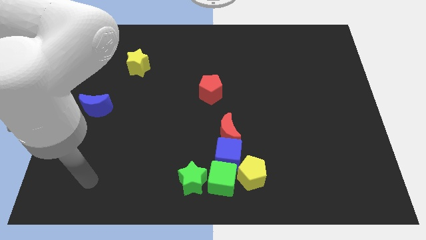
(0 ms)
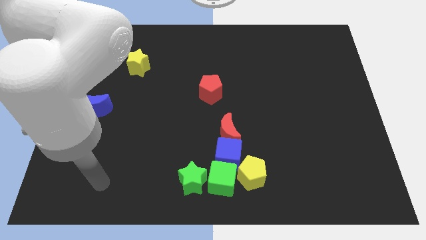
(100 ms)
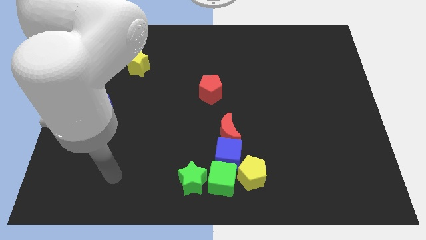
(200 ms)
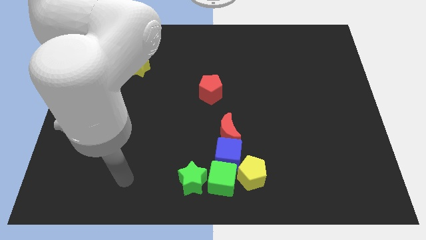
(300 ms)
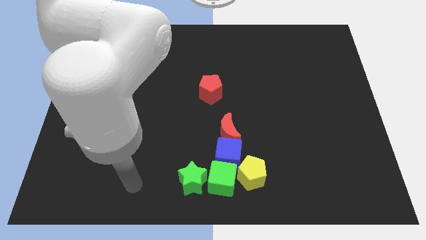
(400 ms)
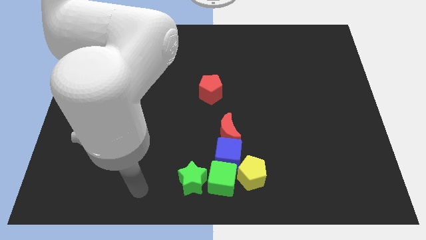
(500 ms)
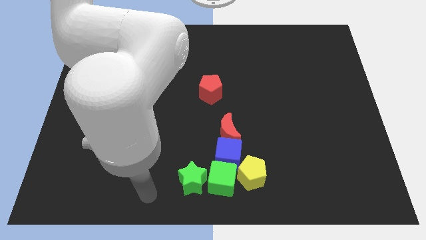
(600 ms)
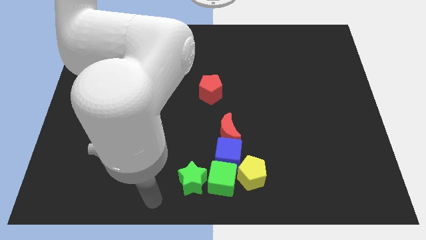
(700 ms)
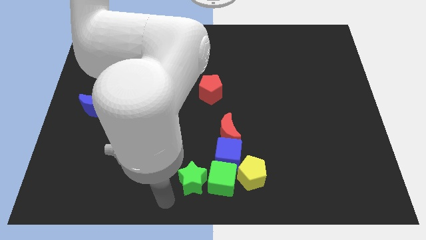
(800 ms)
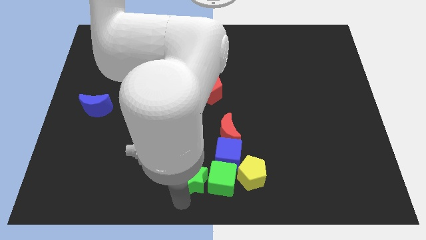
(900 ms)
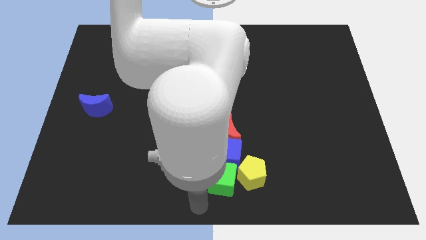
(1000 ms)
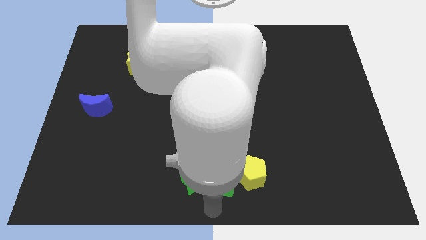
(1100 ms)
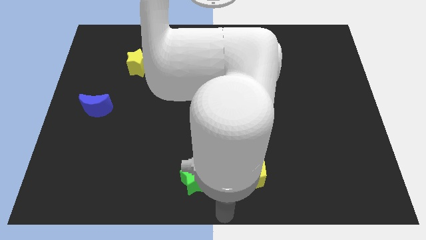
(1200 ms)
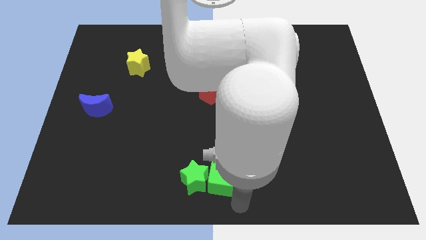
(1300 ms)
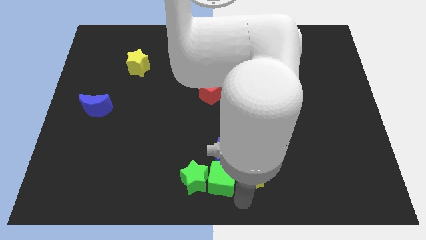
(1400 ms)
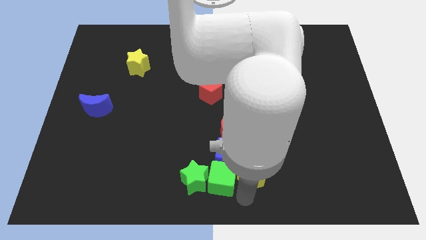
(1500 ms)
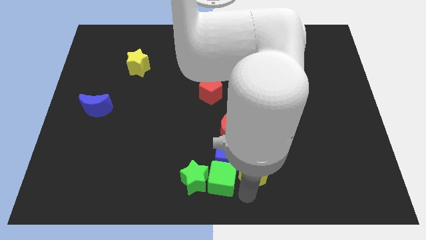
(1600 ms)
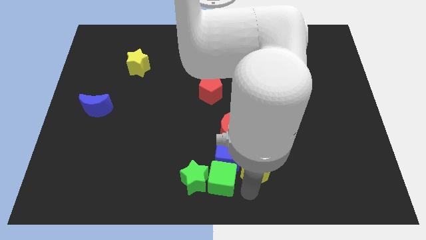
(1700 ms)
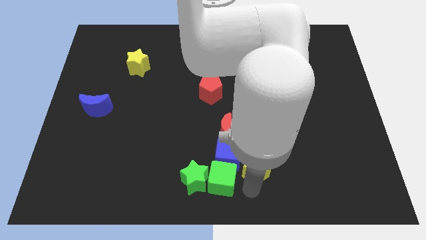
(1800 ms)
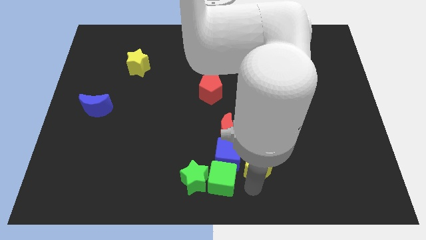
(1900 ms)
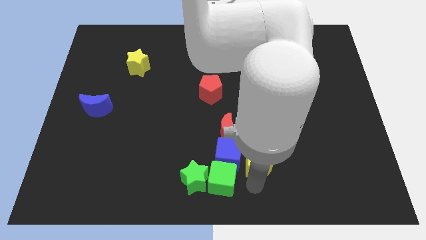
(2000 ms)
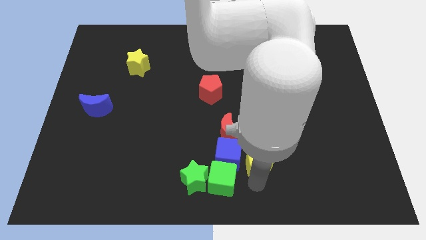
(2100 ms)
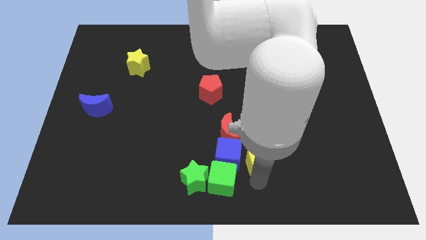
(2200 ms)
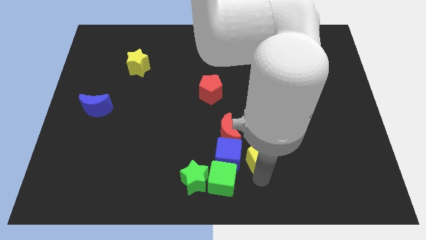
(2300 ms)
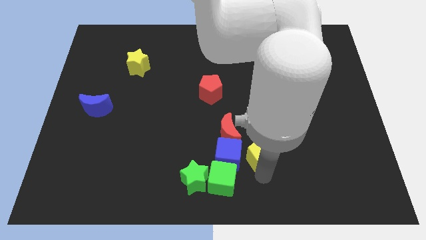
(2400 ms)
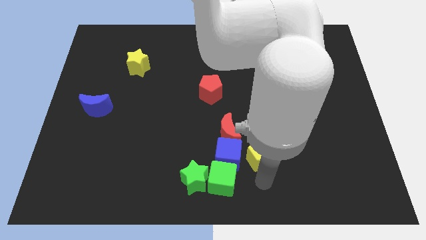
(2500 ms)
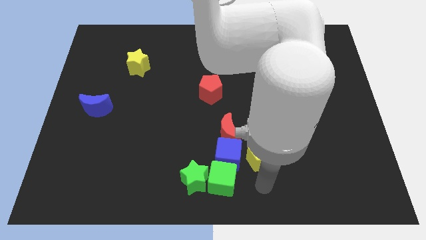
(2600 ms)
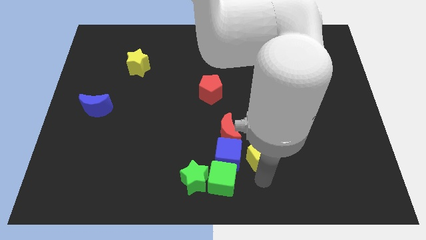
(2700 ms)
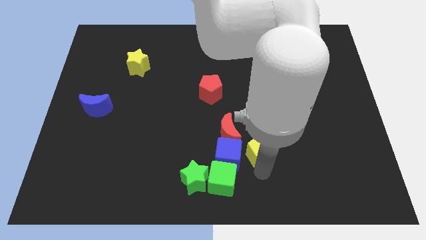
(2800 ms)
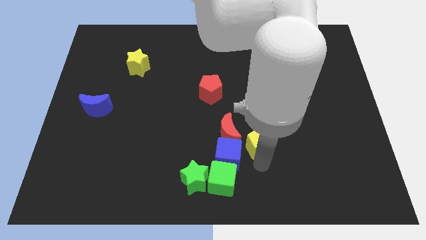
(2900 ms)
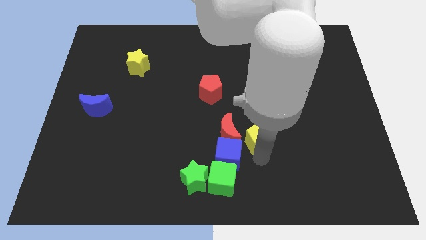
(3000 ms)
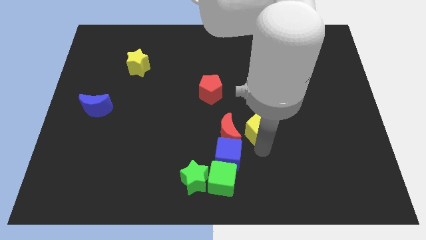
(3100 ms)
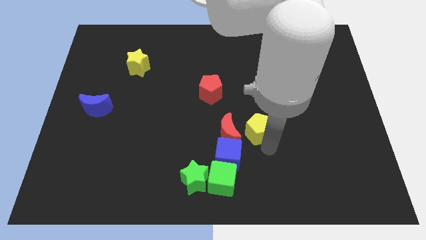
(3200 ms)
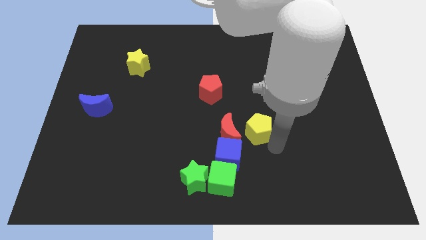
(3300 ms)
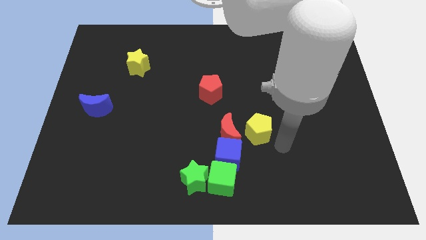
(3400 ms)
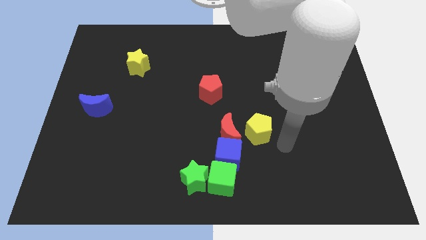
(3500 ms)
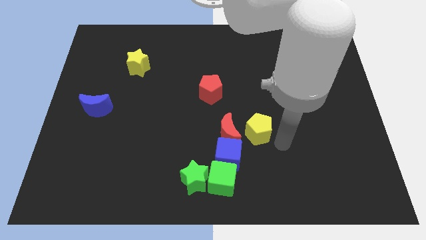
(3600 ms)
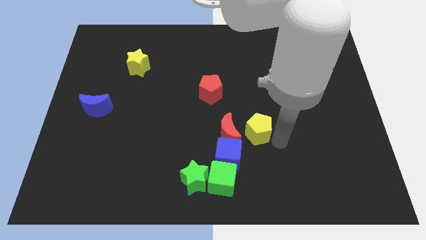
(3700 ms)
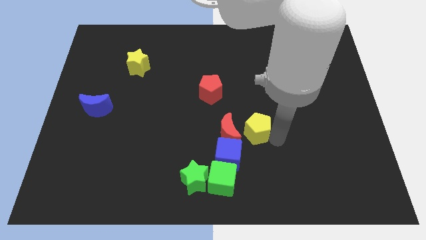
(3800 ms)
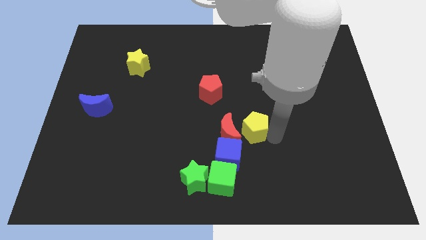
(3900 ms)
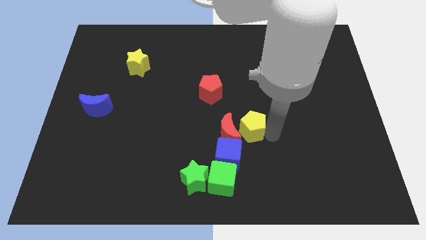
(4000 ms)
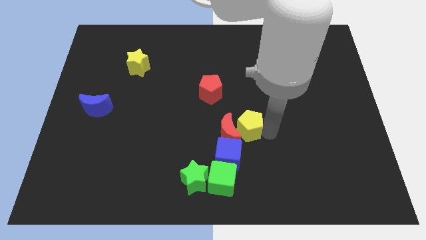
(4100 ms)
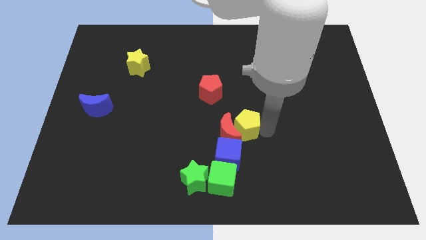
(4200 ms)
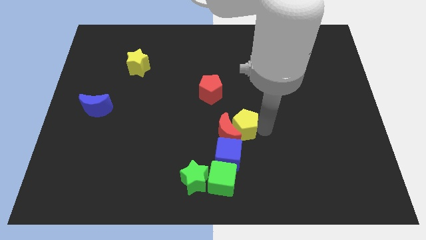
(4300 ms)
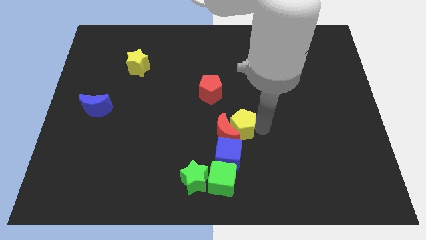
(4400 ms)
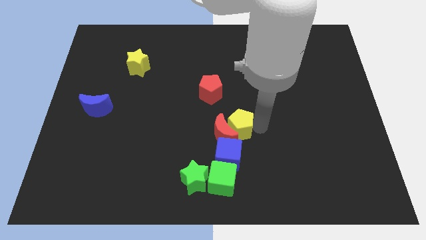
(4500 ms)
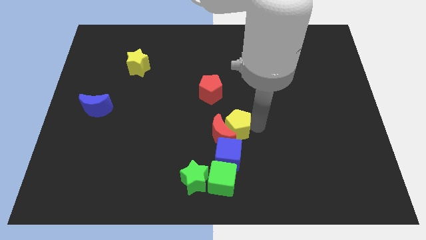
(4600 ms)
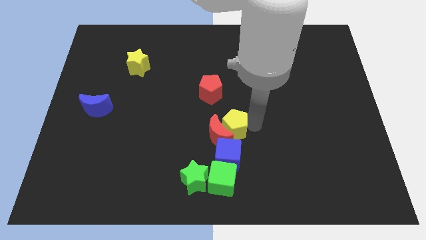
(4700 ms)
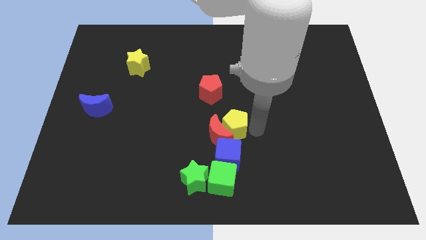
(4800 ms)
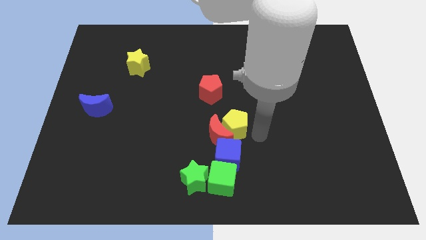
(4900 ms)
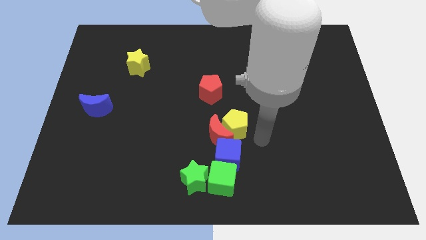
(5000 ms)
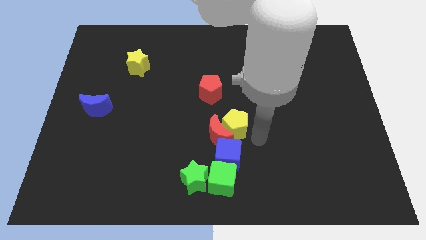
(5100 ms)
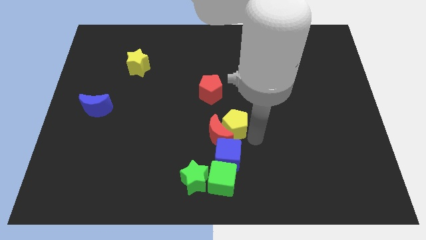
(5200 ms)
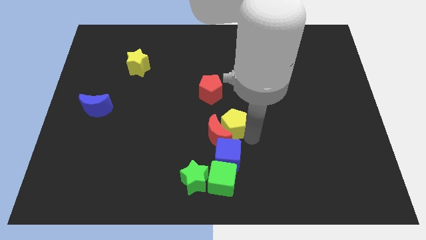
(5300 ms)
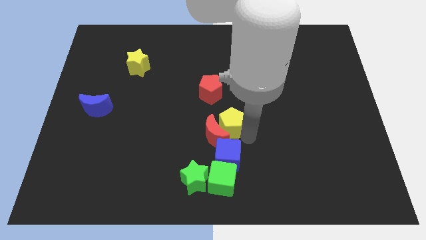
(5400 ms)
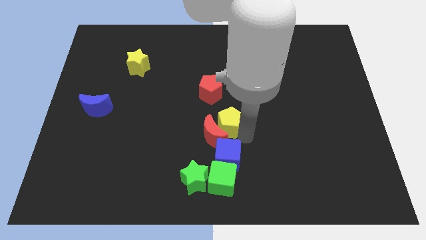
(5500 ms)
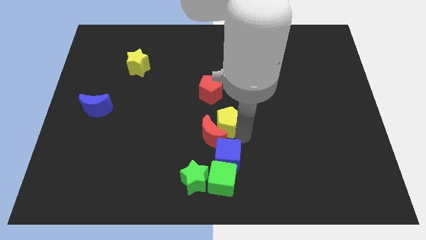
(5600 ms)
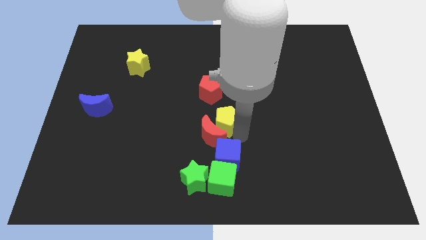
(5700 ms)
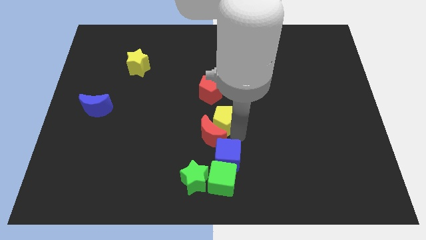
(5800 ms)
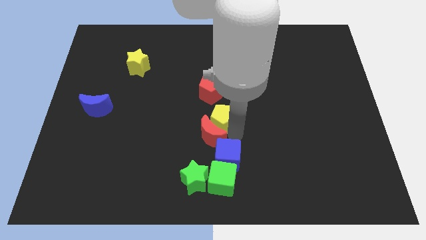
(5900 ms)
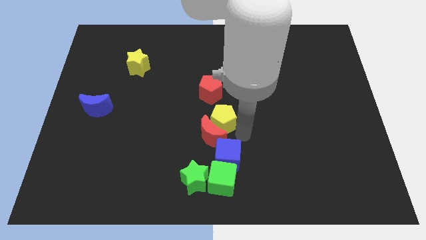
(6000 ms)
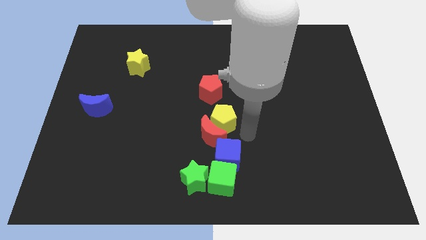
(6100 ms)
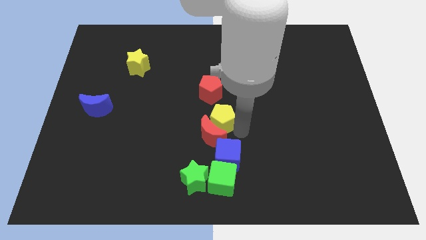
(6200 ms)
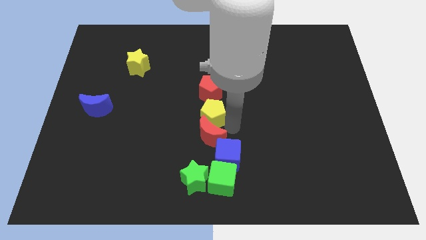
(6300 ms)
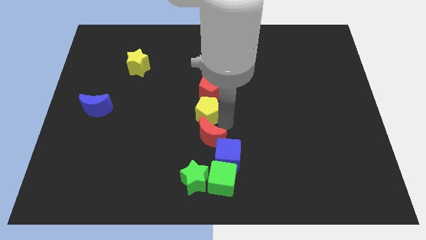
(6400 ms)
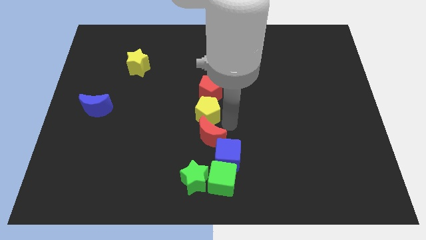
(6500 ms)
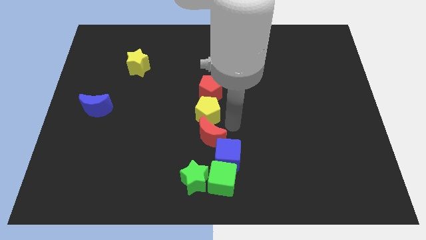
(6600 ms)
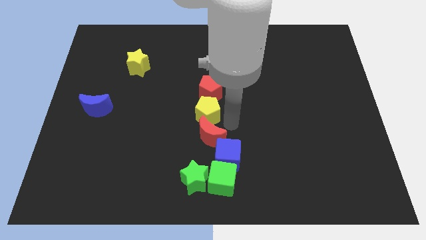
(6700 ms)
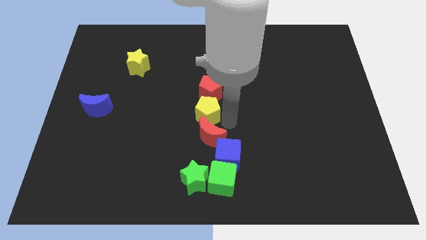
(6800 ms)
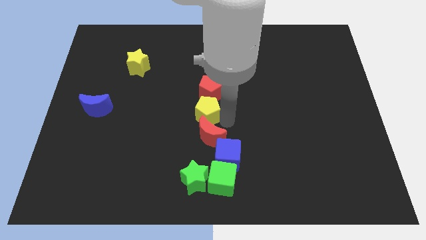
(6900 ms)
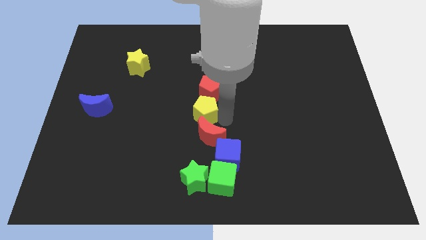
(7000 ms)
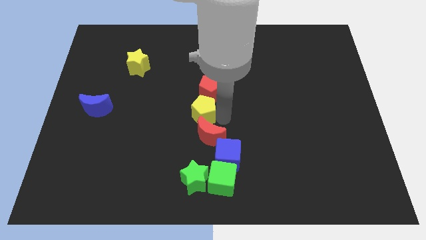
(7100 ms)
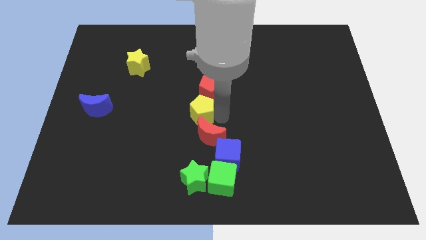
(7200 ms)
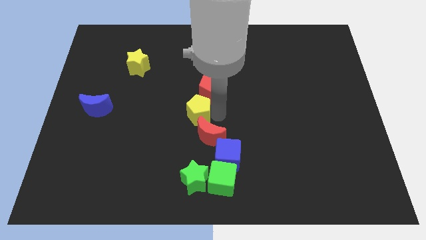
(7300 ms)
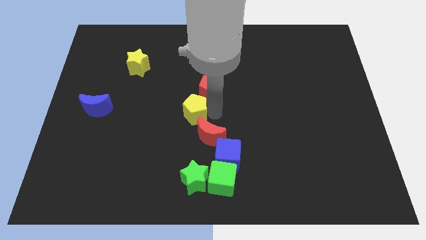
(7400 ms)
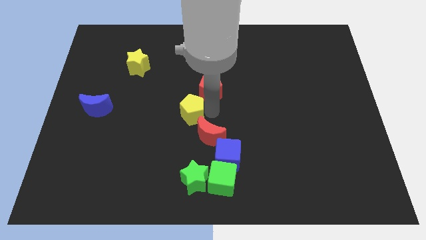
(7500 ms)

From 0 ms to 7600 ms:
move the yellow pentagon diagonally up and to the left

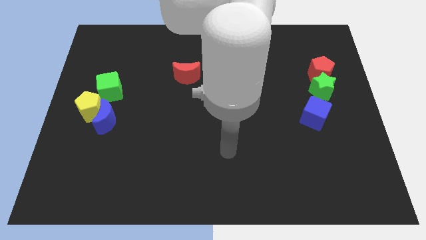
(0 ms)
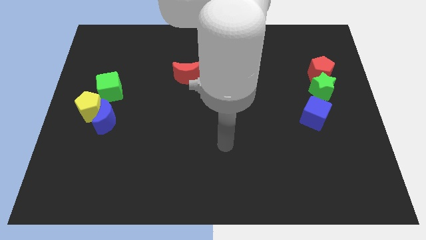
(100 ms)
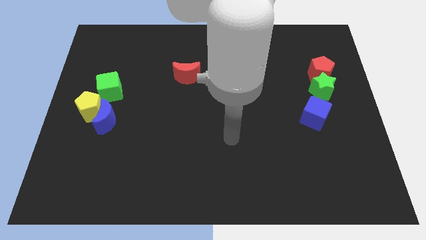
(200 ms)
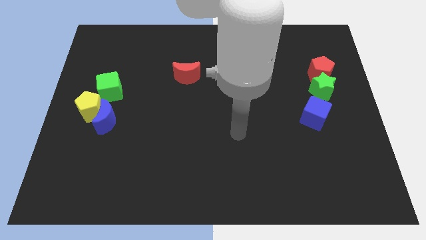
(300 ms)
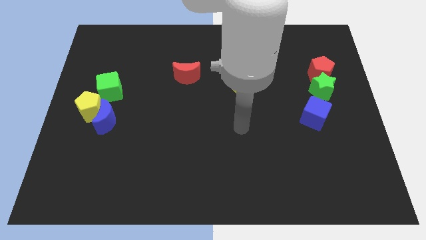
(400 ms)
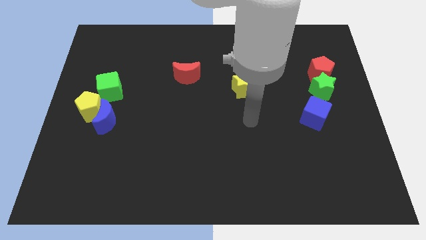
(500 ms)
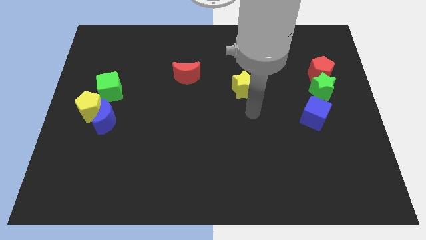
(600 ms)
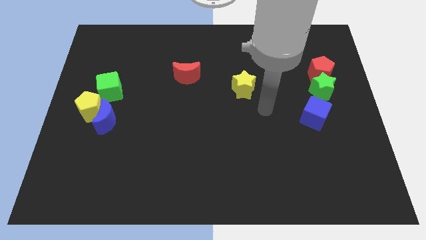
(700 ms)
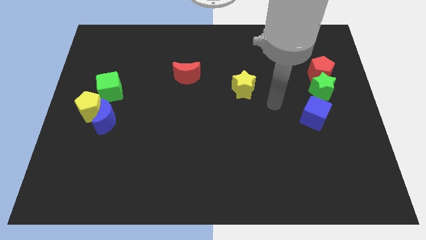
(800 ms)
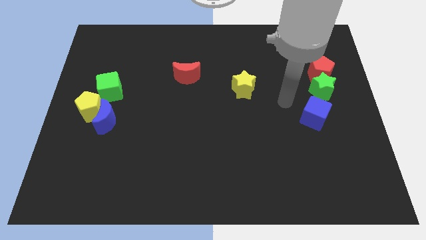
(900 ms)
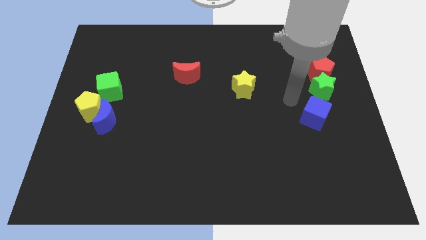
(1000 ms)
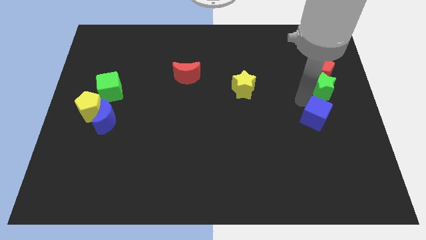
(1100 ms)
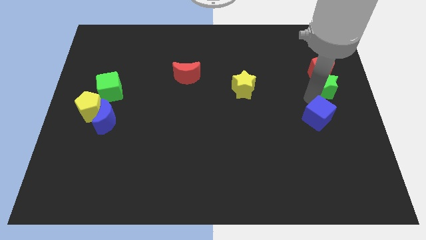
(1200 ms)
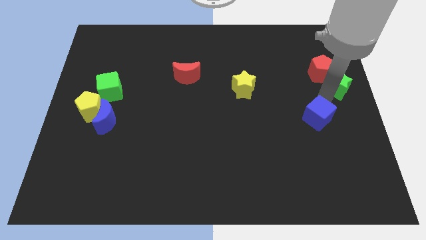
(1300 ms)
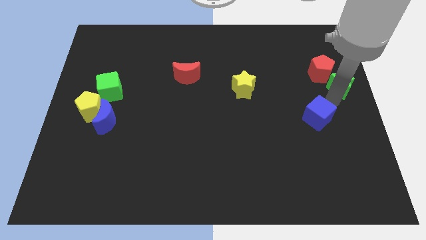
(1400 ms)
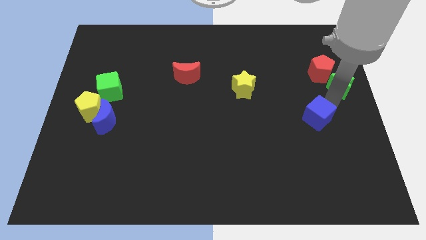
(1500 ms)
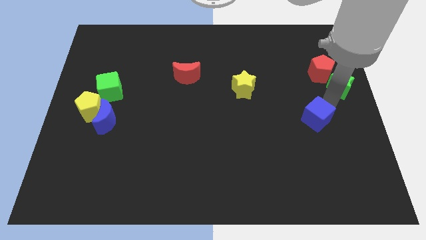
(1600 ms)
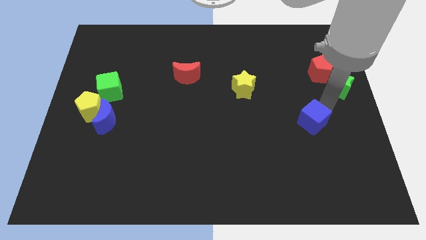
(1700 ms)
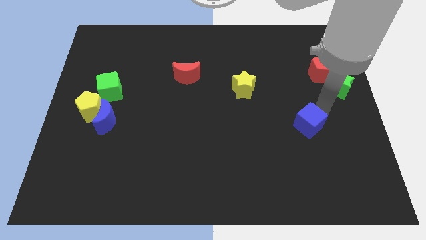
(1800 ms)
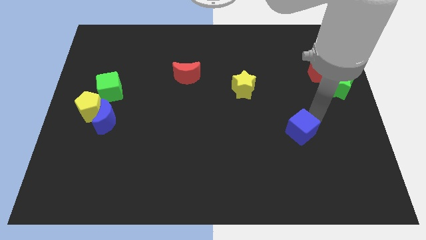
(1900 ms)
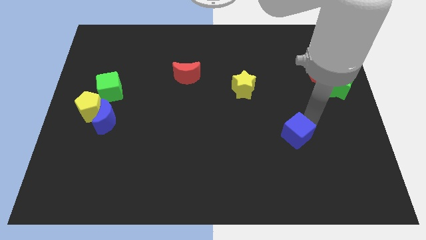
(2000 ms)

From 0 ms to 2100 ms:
slightly push the blue cube down and left
